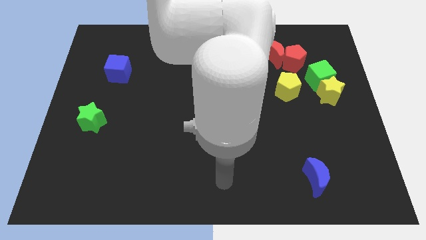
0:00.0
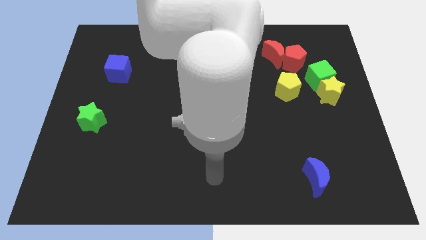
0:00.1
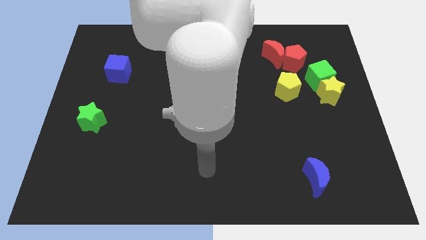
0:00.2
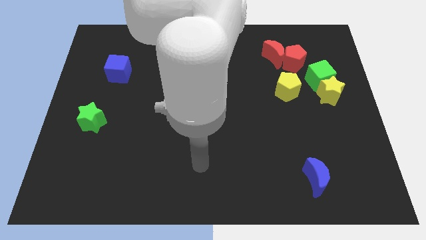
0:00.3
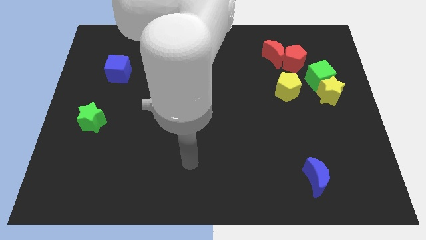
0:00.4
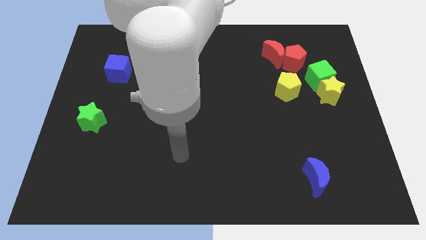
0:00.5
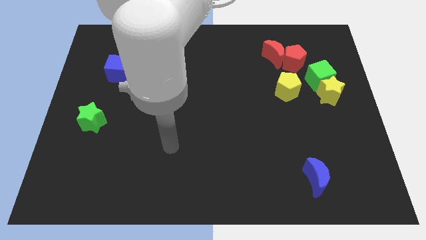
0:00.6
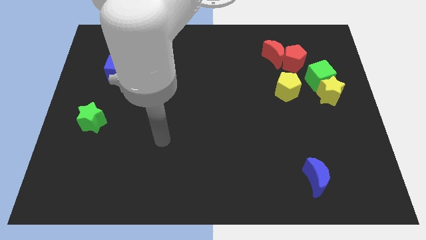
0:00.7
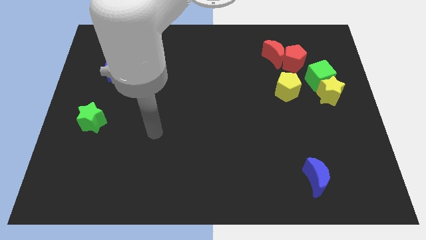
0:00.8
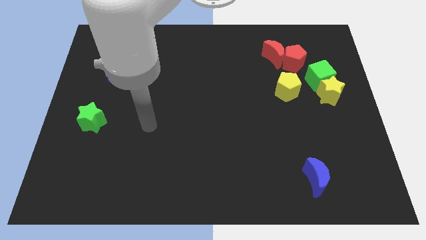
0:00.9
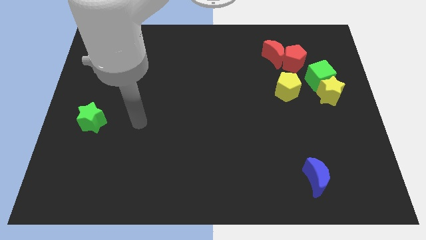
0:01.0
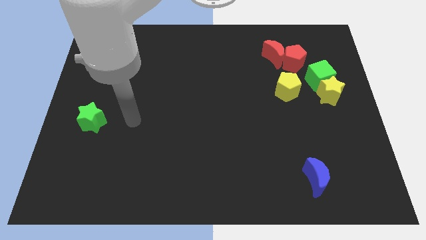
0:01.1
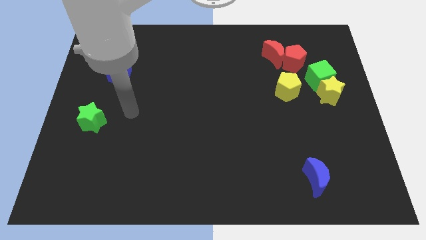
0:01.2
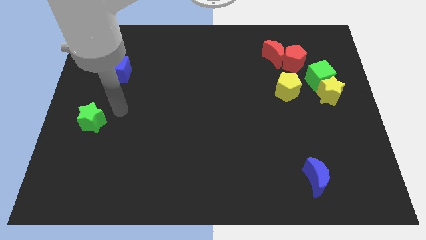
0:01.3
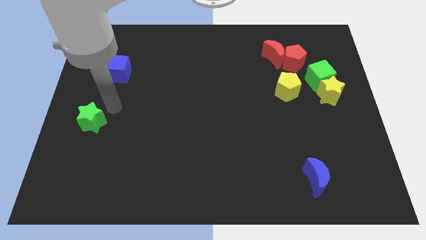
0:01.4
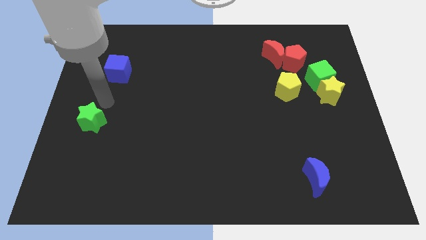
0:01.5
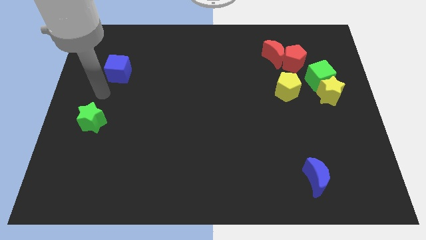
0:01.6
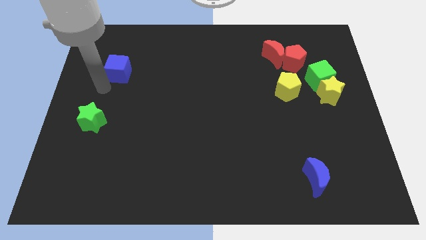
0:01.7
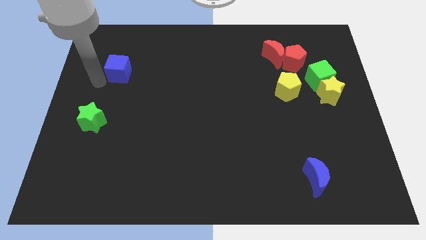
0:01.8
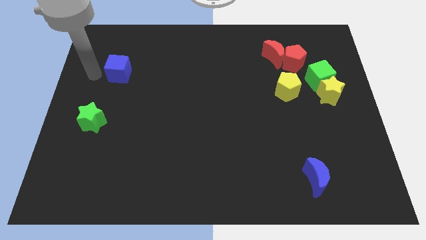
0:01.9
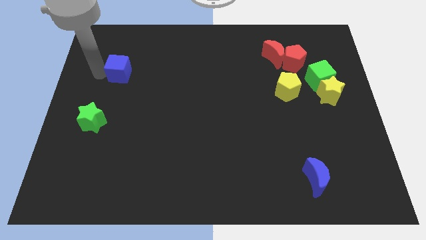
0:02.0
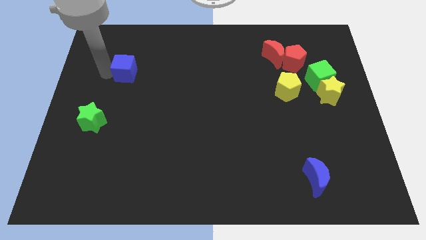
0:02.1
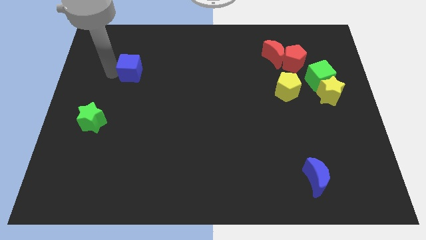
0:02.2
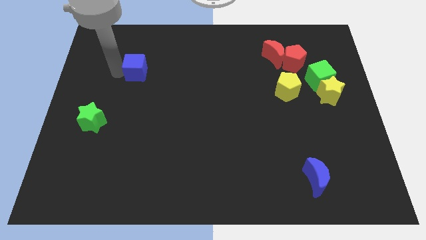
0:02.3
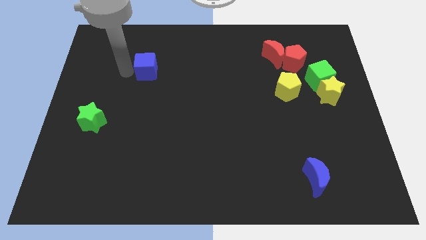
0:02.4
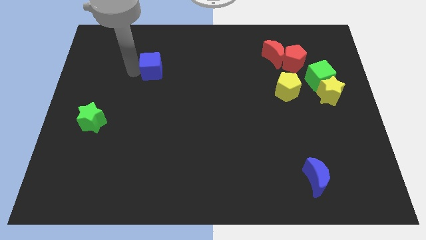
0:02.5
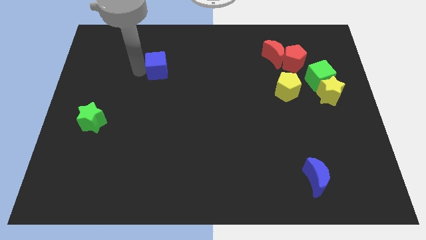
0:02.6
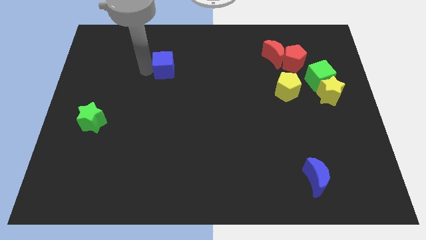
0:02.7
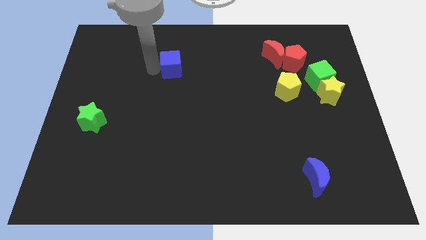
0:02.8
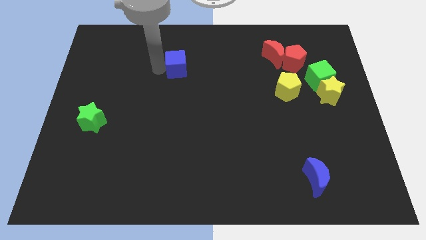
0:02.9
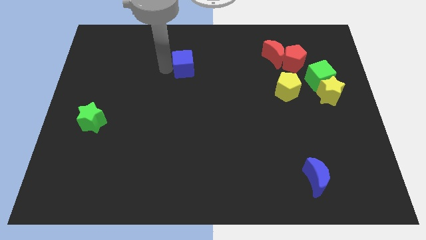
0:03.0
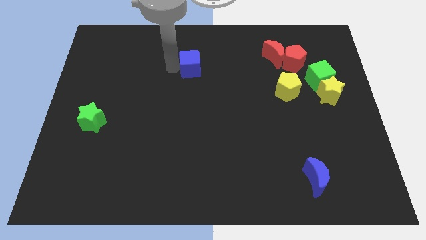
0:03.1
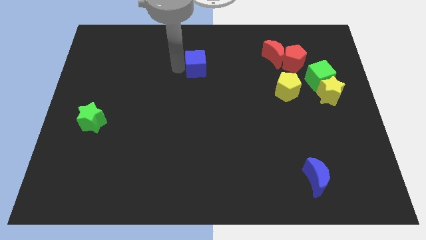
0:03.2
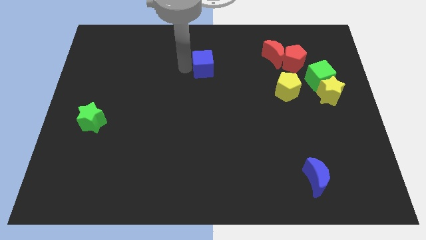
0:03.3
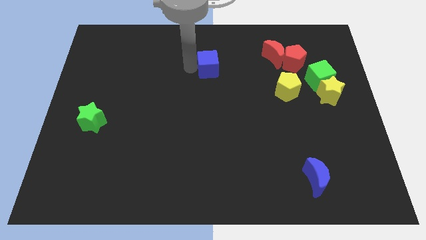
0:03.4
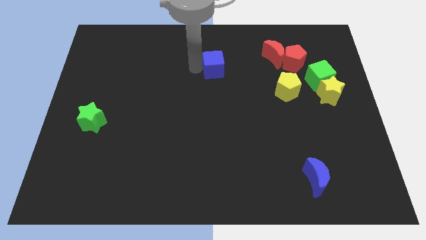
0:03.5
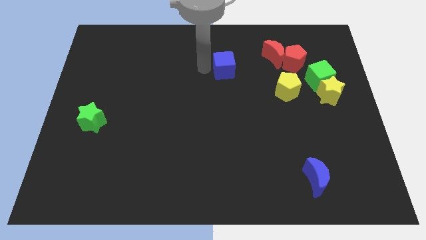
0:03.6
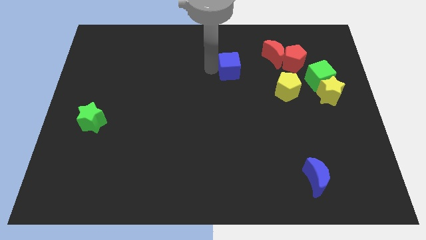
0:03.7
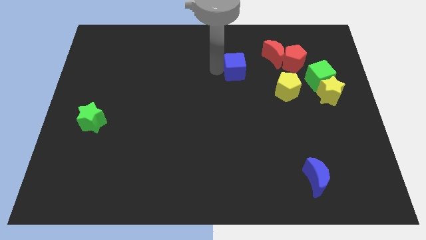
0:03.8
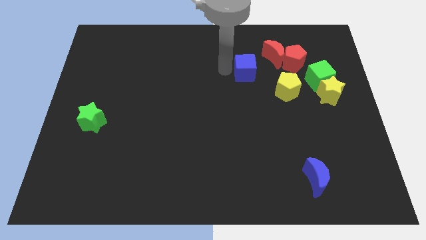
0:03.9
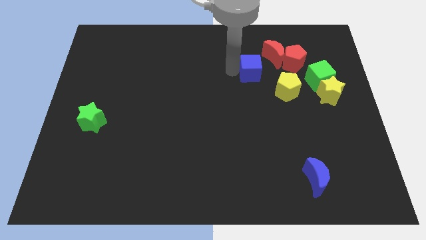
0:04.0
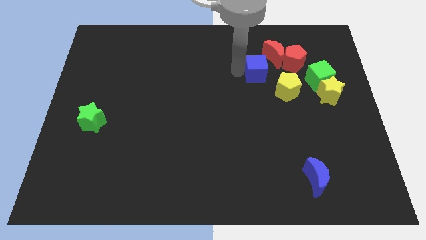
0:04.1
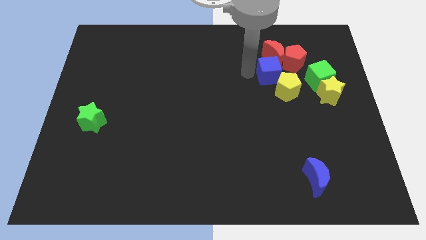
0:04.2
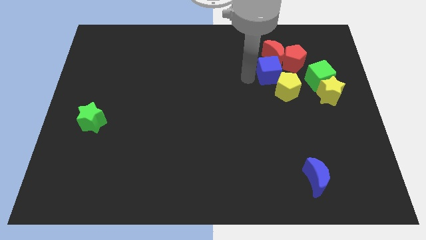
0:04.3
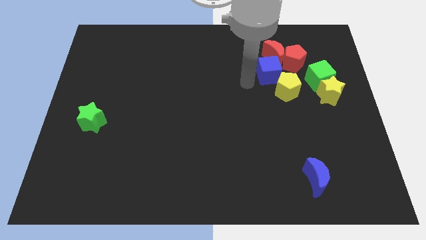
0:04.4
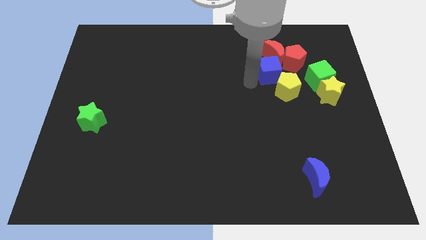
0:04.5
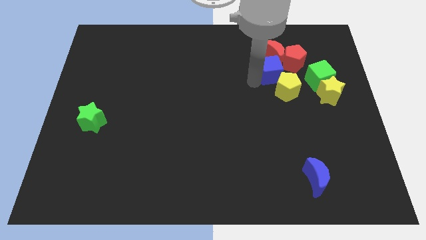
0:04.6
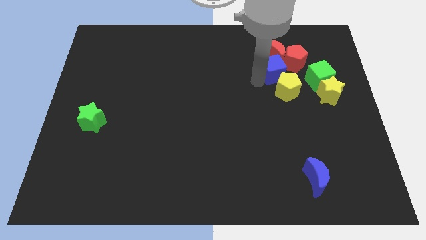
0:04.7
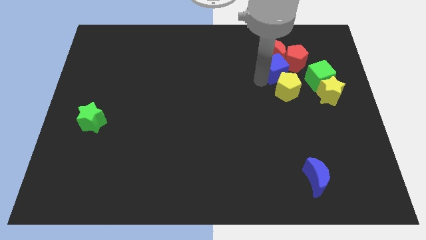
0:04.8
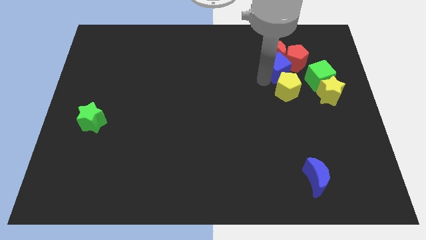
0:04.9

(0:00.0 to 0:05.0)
move the blue cube towards the red pentagon
